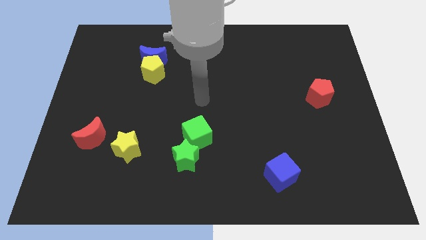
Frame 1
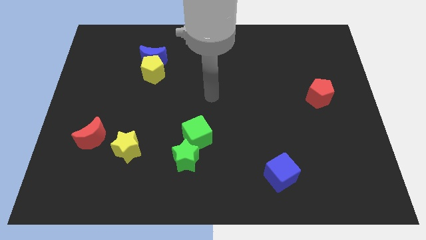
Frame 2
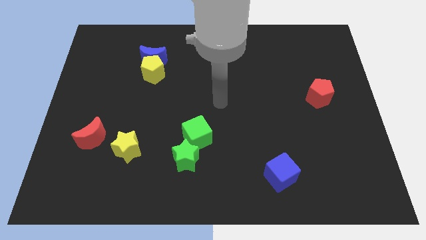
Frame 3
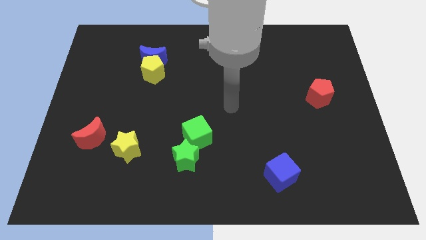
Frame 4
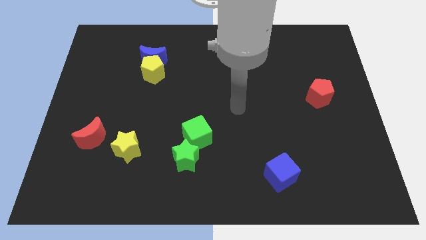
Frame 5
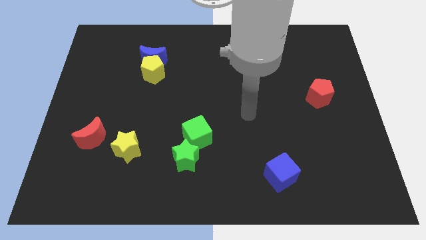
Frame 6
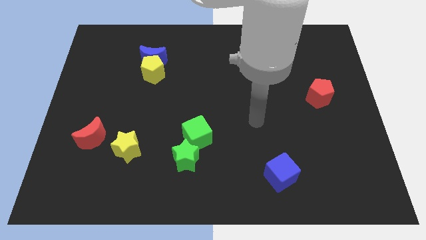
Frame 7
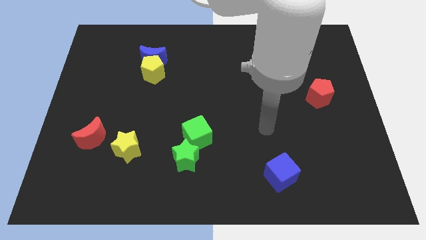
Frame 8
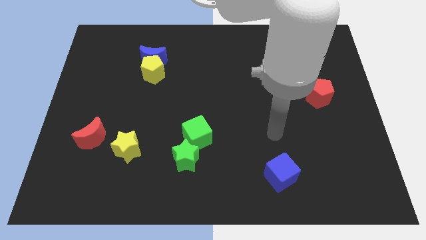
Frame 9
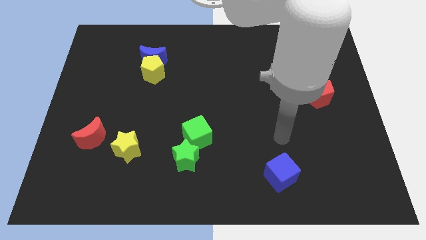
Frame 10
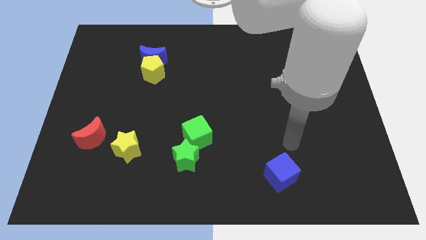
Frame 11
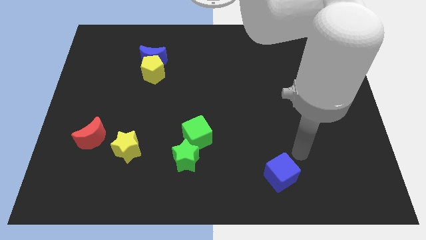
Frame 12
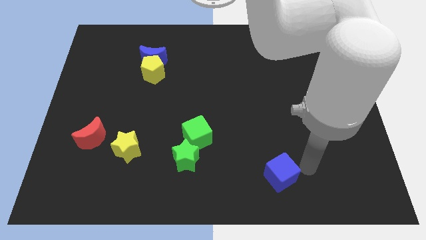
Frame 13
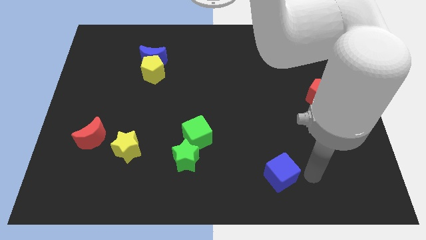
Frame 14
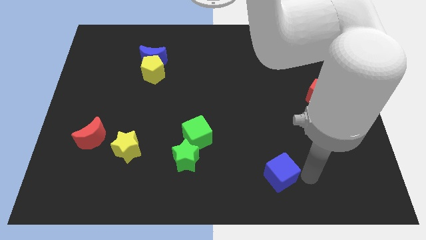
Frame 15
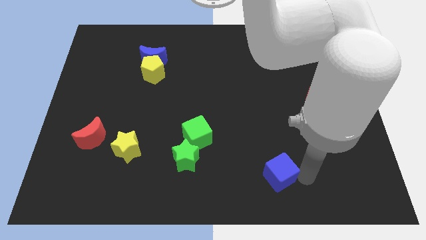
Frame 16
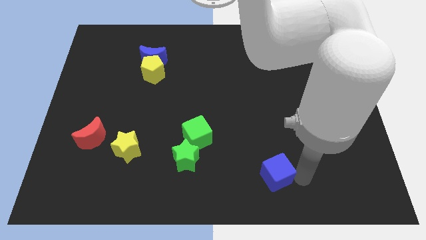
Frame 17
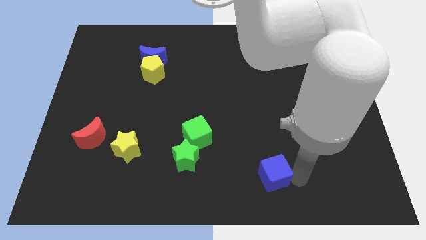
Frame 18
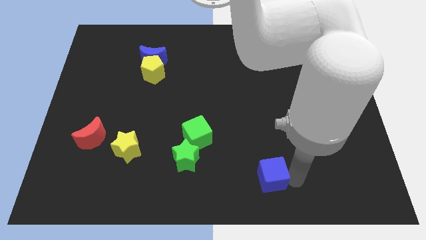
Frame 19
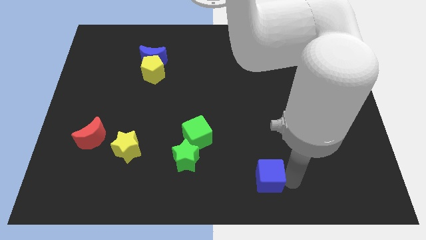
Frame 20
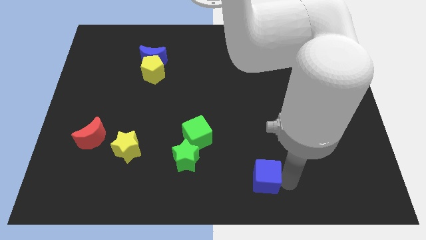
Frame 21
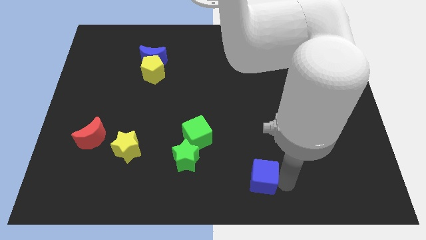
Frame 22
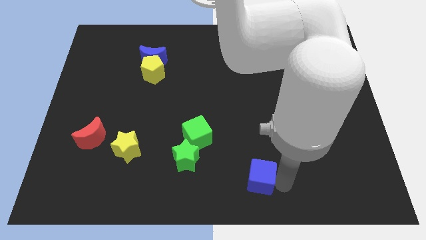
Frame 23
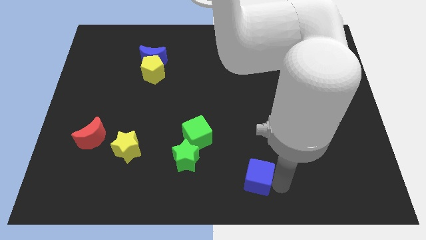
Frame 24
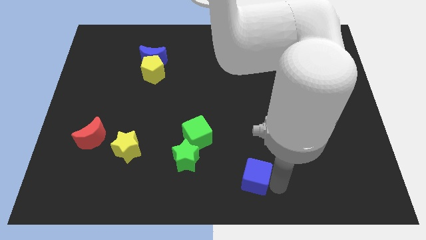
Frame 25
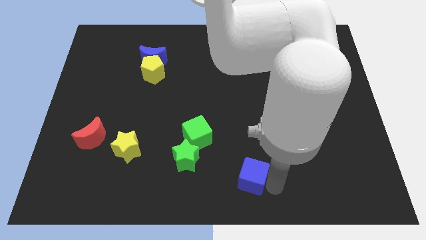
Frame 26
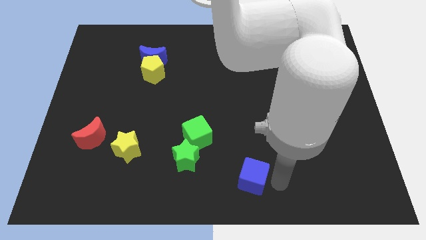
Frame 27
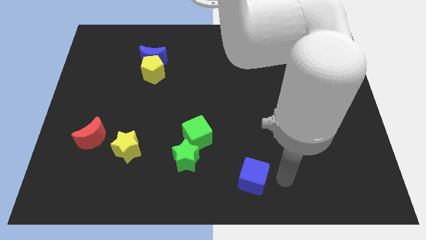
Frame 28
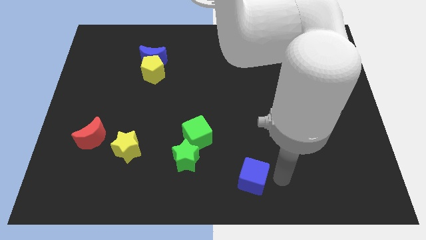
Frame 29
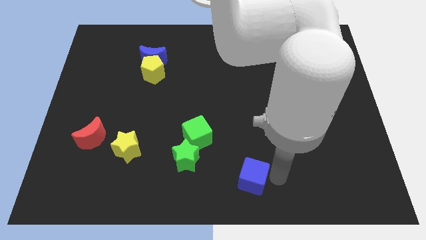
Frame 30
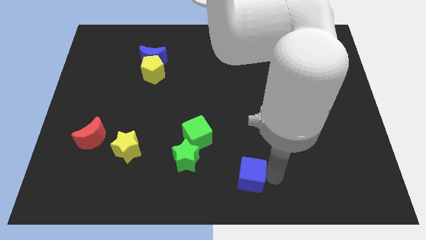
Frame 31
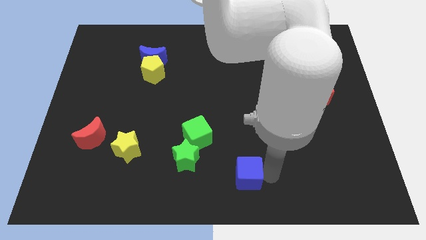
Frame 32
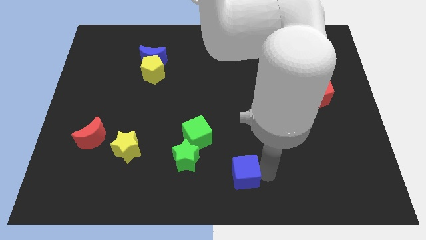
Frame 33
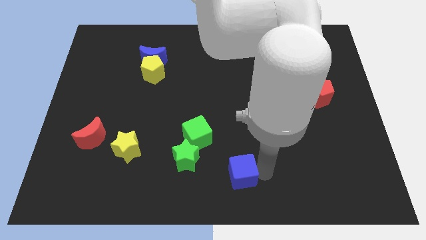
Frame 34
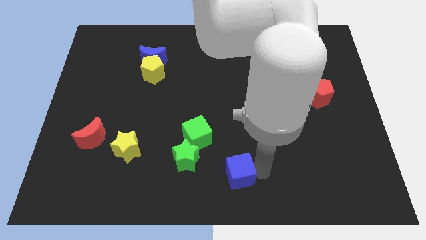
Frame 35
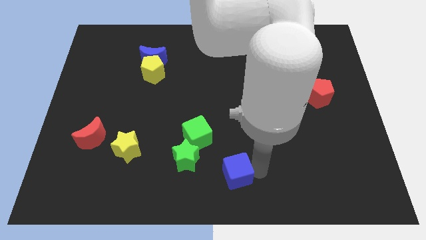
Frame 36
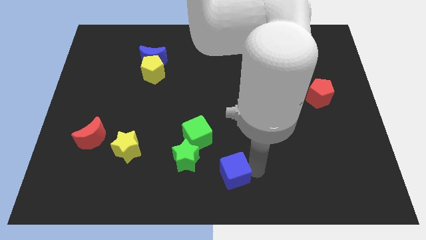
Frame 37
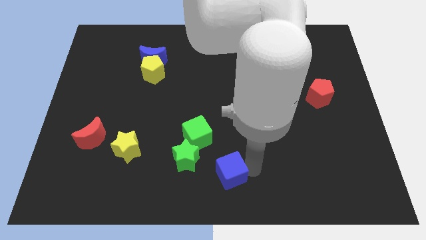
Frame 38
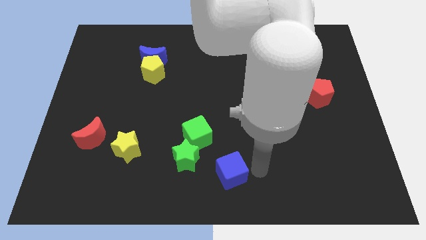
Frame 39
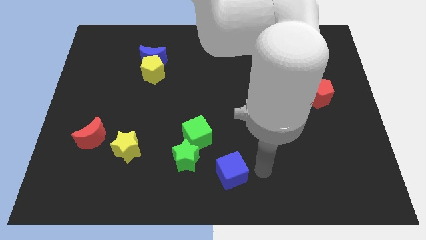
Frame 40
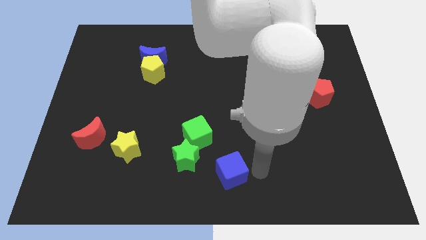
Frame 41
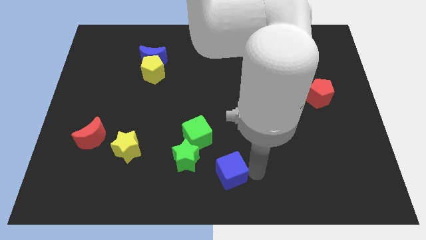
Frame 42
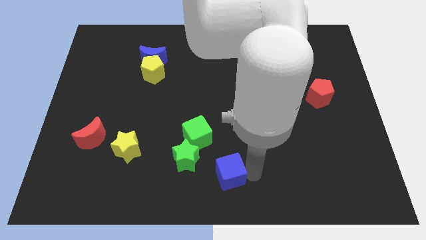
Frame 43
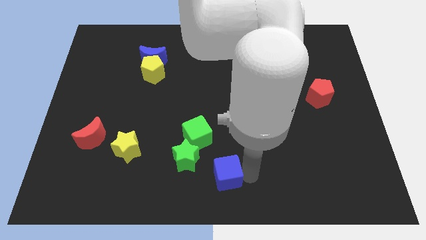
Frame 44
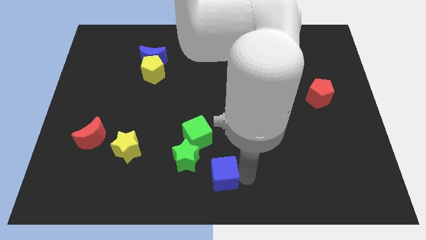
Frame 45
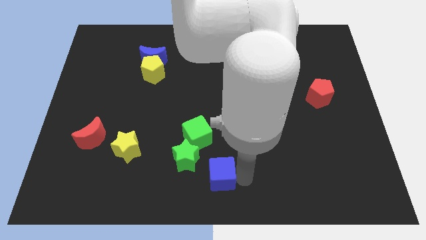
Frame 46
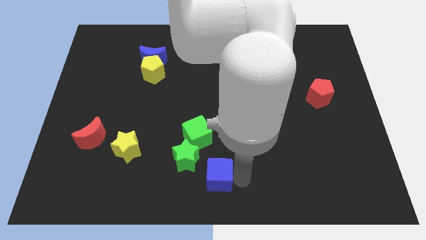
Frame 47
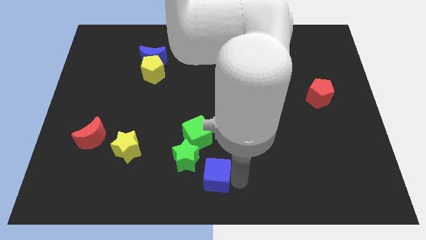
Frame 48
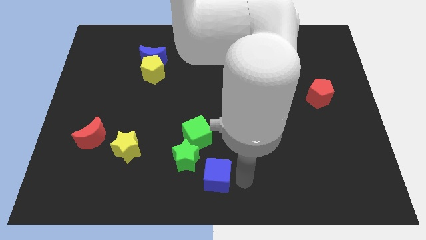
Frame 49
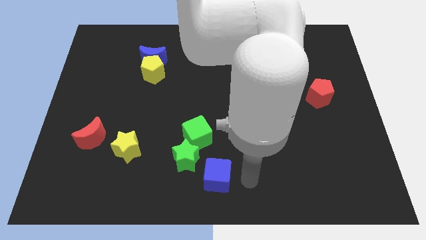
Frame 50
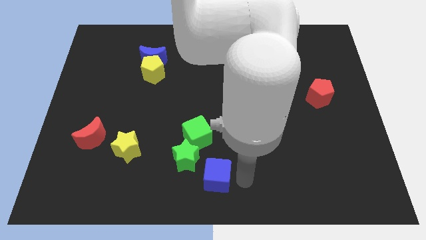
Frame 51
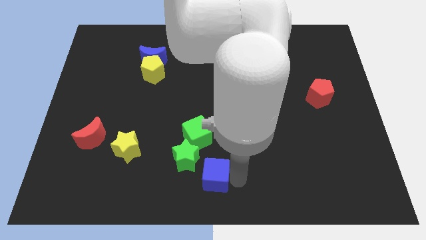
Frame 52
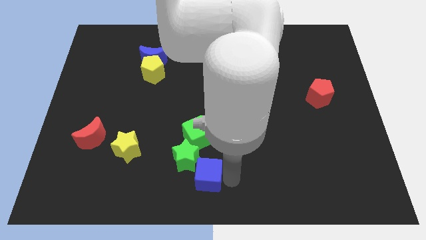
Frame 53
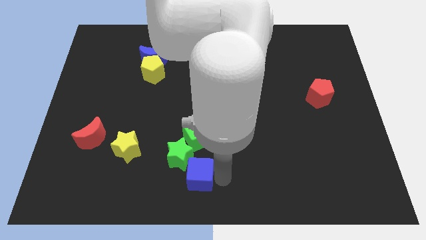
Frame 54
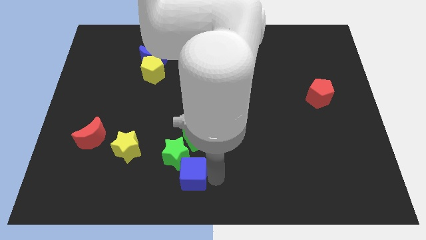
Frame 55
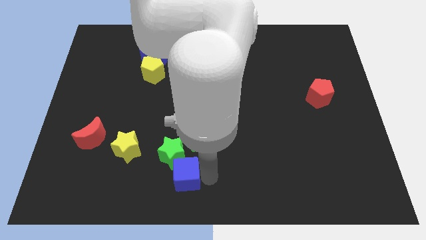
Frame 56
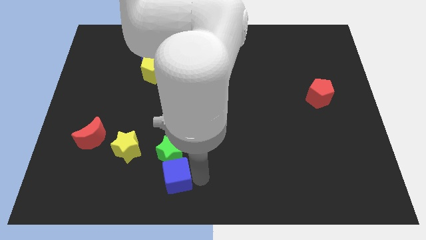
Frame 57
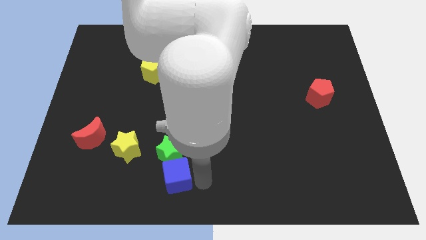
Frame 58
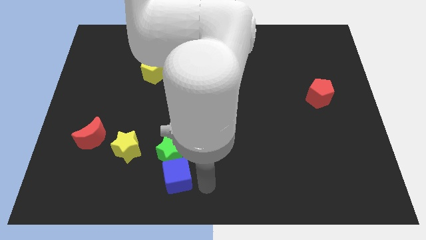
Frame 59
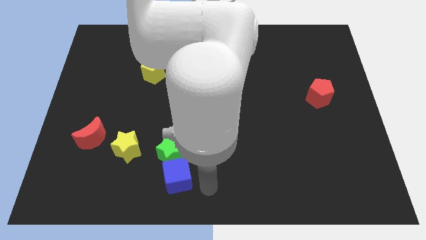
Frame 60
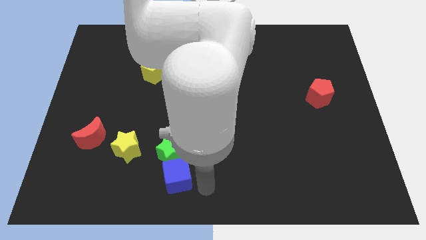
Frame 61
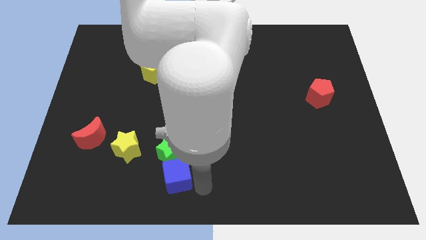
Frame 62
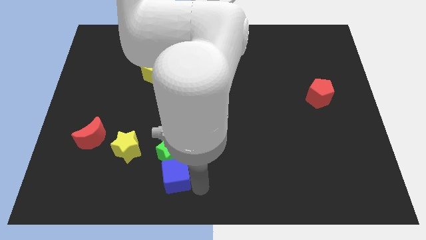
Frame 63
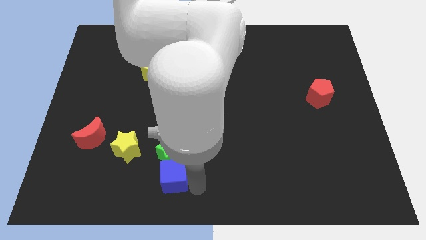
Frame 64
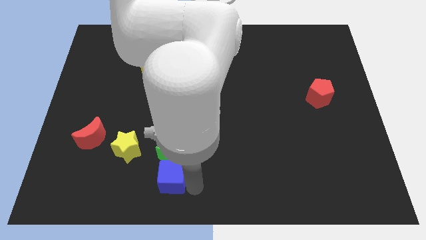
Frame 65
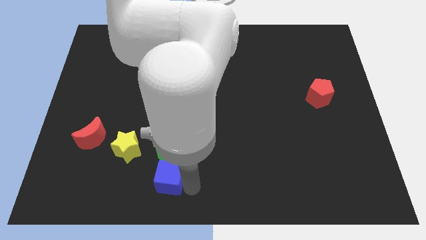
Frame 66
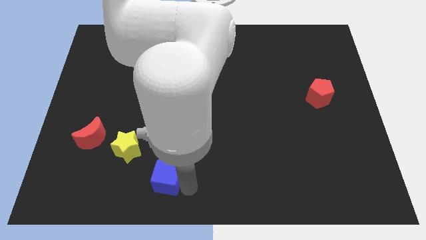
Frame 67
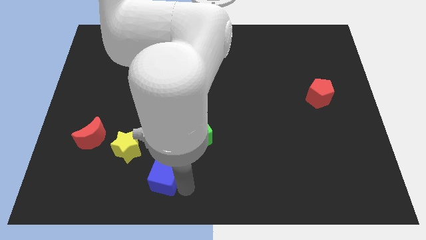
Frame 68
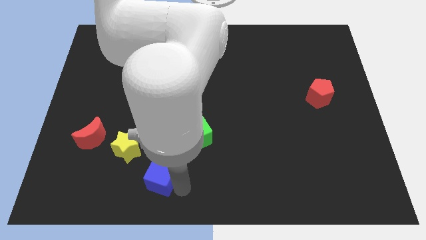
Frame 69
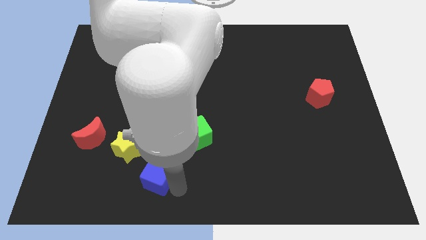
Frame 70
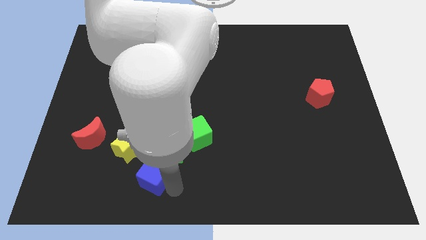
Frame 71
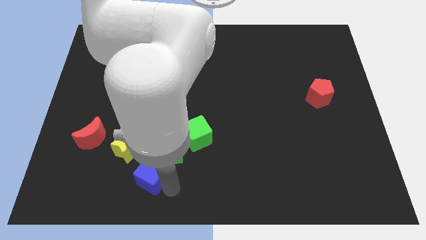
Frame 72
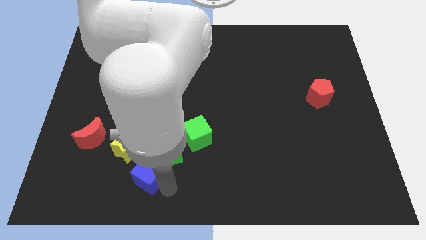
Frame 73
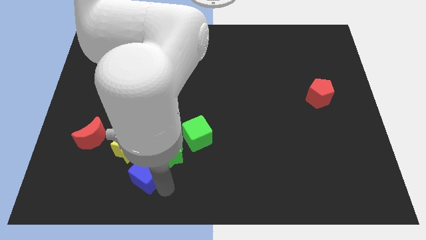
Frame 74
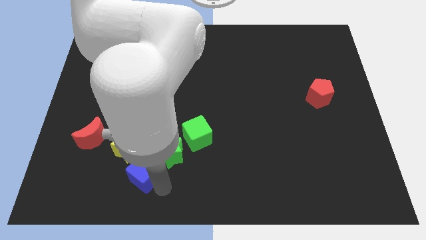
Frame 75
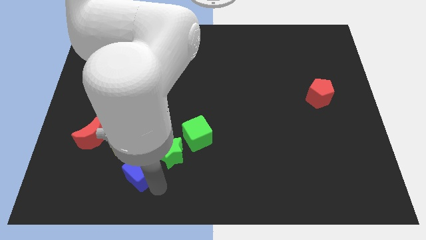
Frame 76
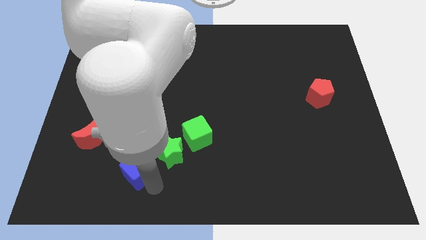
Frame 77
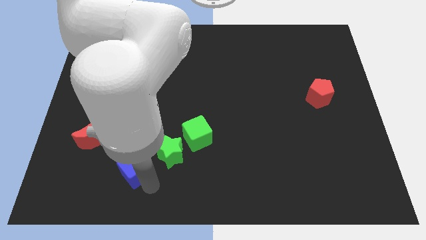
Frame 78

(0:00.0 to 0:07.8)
slide the blue cube to the yellow star

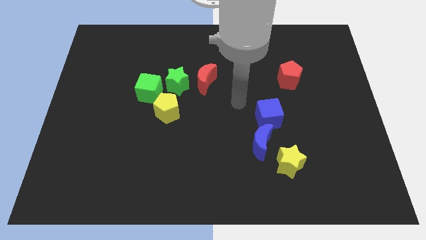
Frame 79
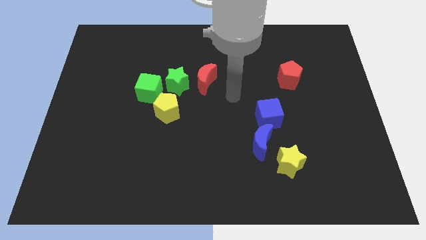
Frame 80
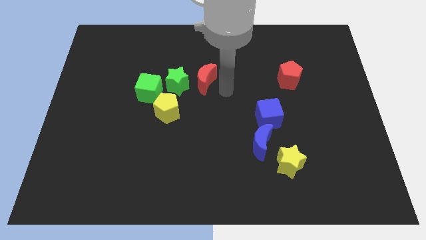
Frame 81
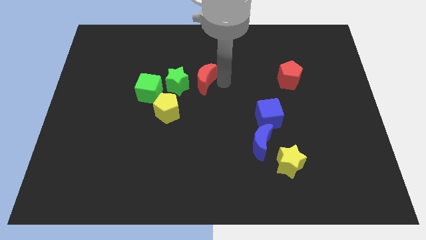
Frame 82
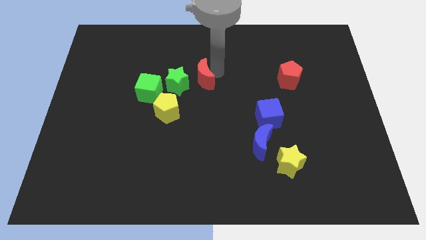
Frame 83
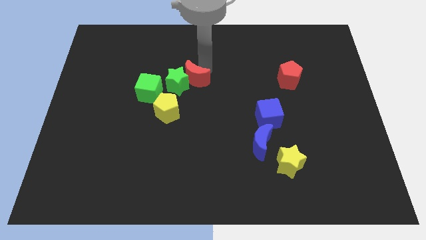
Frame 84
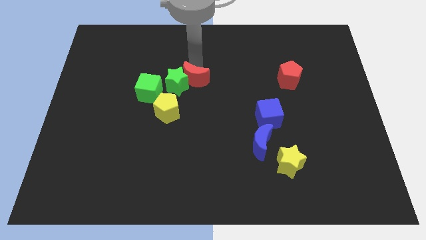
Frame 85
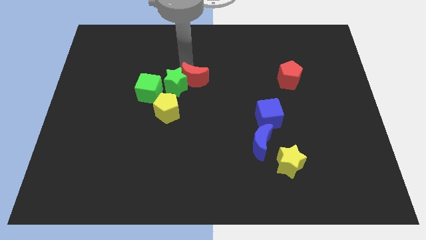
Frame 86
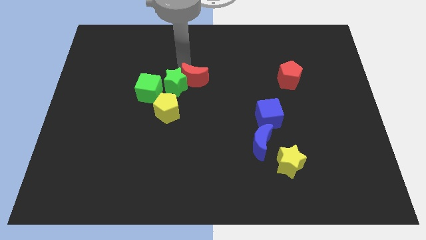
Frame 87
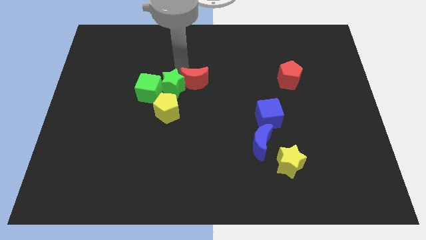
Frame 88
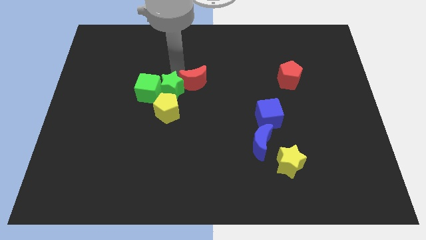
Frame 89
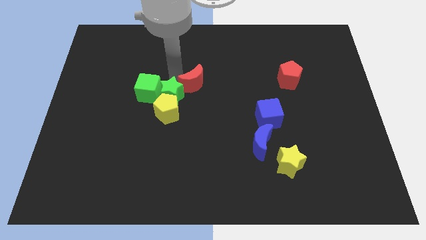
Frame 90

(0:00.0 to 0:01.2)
put the green star towards the yellow pentagon
